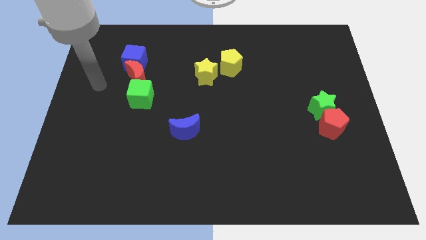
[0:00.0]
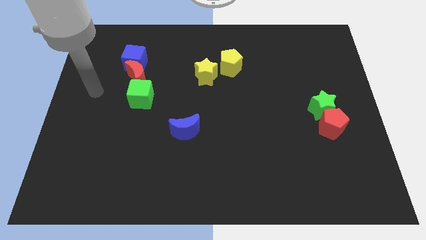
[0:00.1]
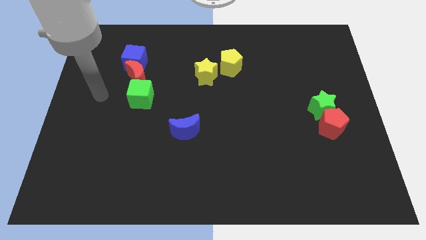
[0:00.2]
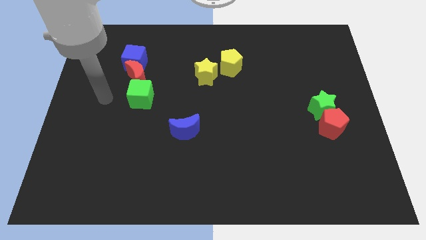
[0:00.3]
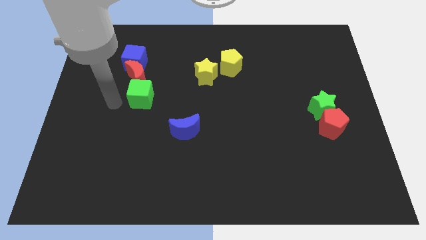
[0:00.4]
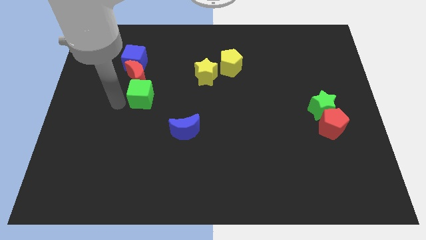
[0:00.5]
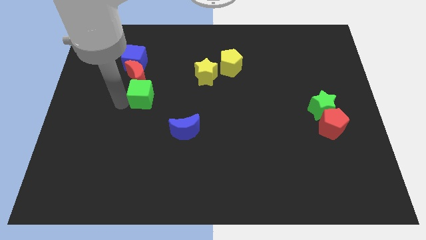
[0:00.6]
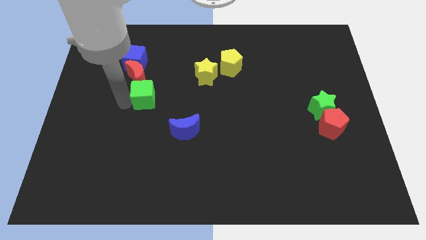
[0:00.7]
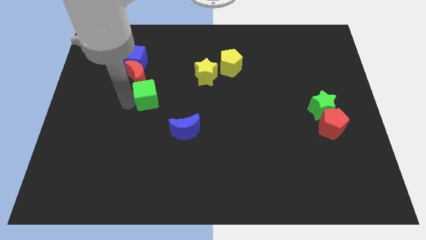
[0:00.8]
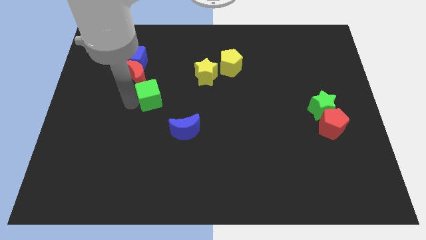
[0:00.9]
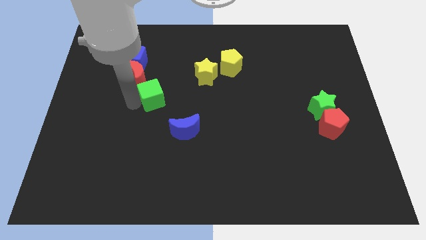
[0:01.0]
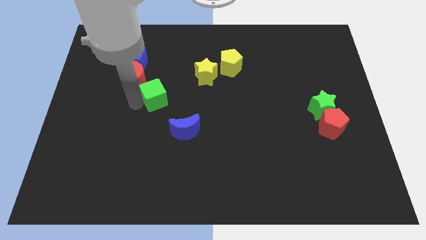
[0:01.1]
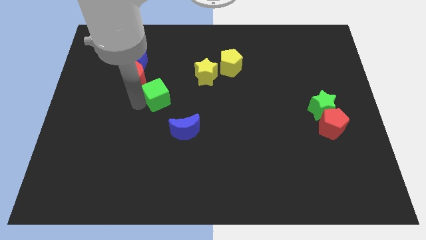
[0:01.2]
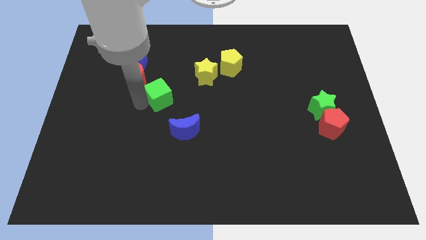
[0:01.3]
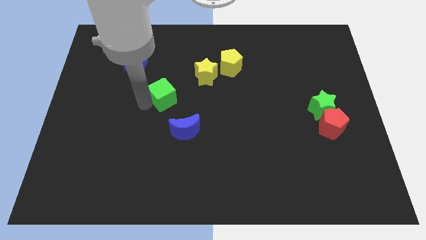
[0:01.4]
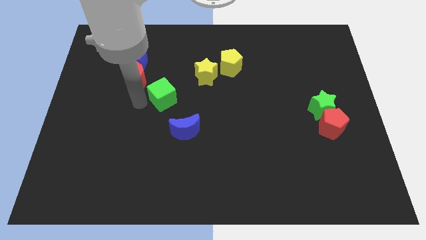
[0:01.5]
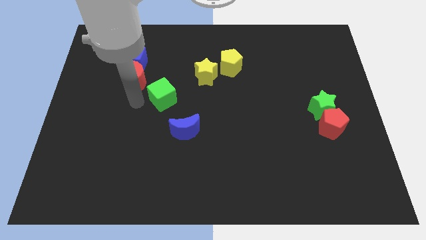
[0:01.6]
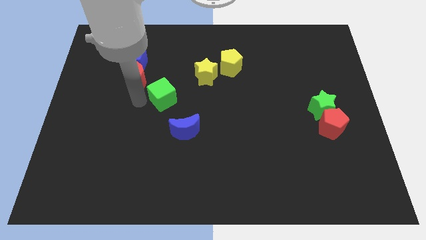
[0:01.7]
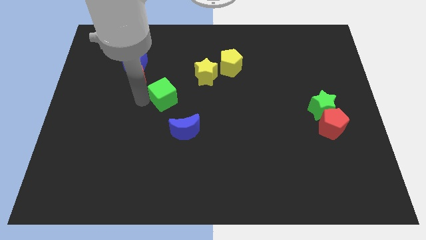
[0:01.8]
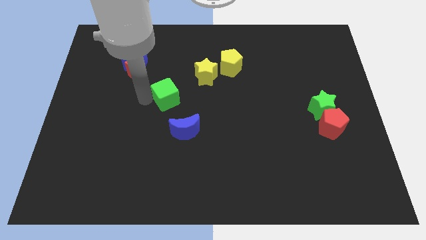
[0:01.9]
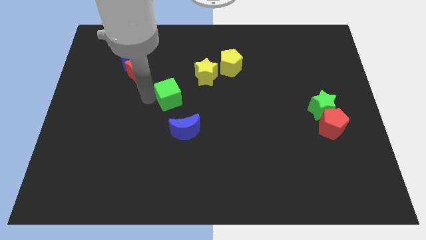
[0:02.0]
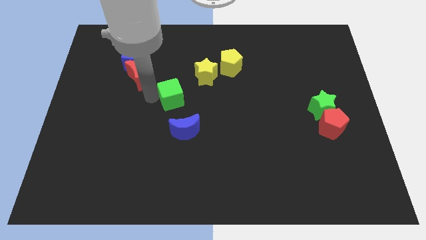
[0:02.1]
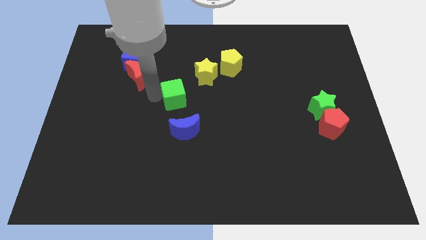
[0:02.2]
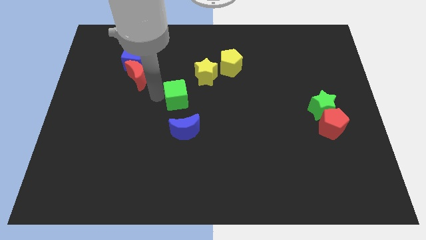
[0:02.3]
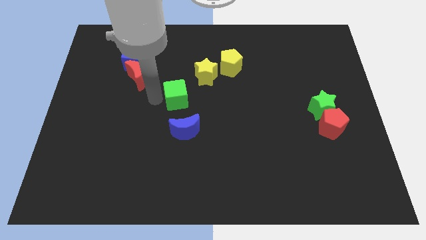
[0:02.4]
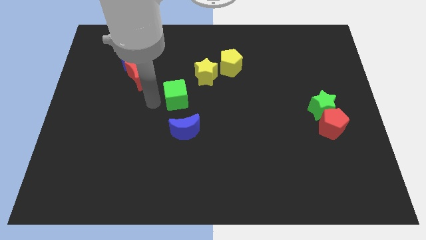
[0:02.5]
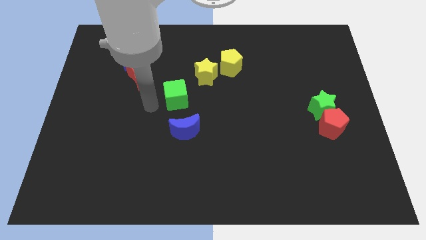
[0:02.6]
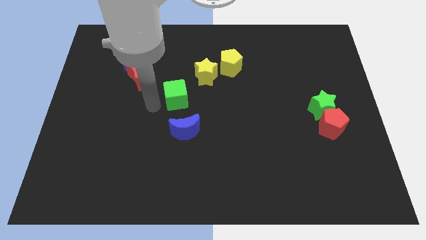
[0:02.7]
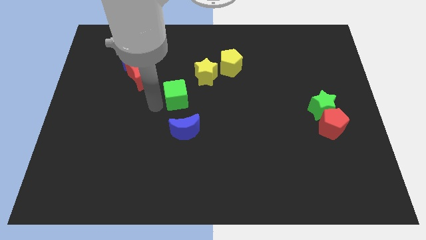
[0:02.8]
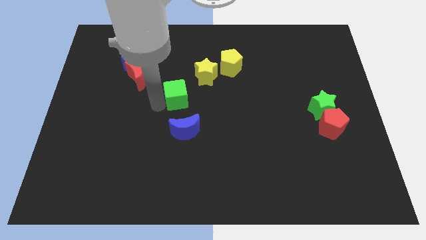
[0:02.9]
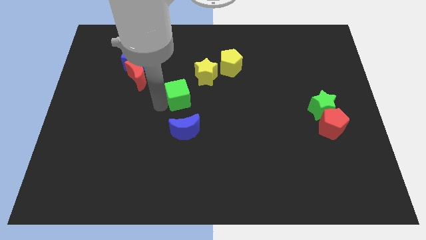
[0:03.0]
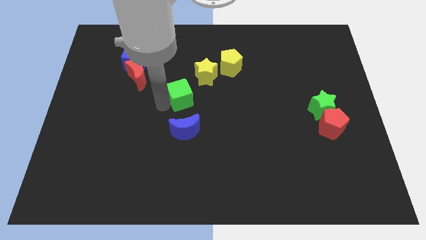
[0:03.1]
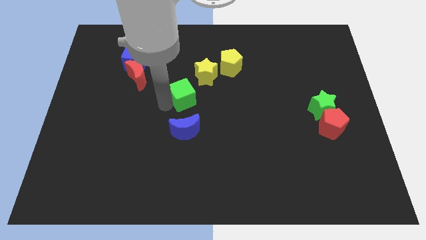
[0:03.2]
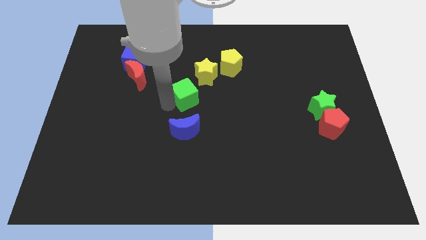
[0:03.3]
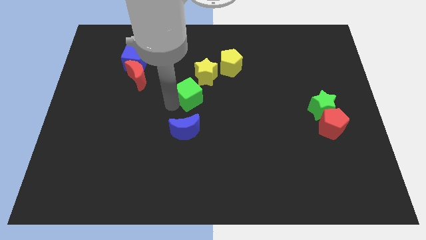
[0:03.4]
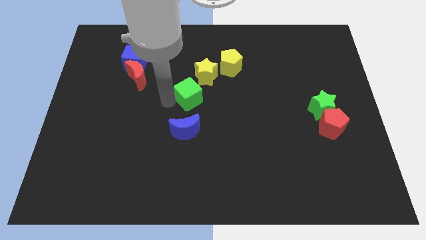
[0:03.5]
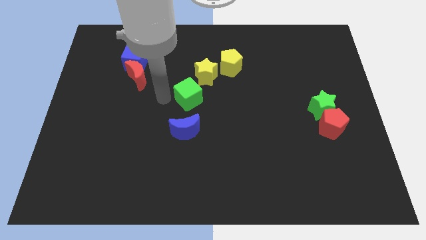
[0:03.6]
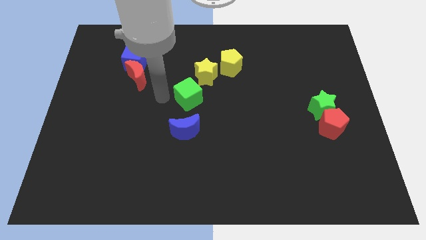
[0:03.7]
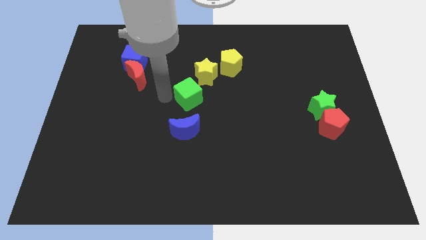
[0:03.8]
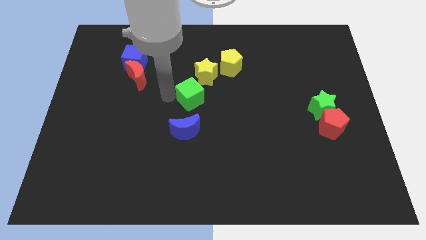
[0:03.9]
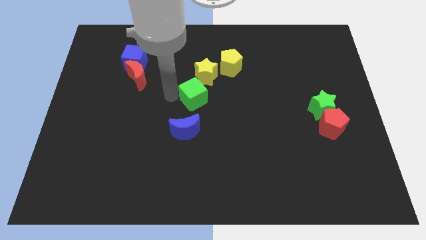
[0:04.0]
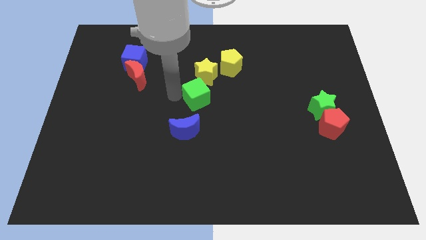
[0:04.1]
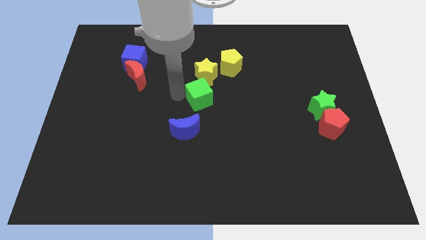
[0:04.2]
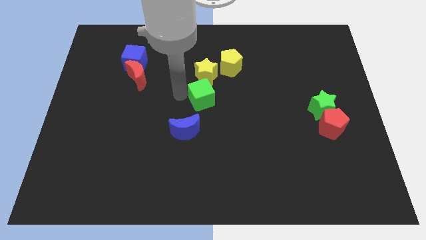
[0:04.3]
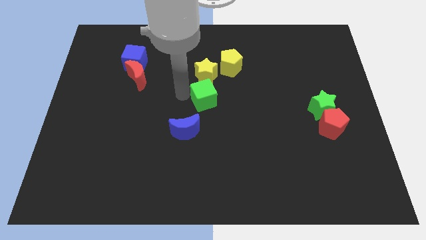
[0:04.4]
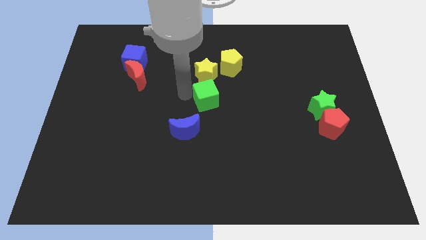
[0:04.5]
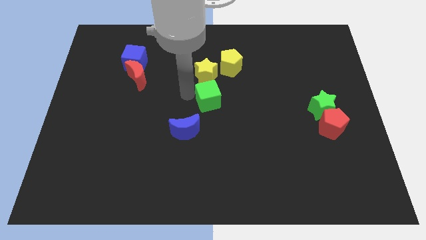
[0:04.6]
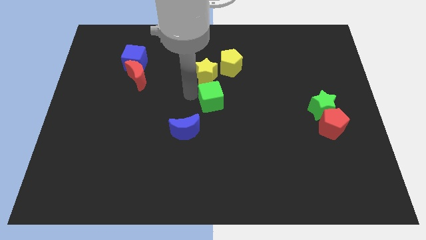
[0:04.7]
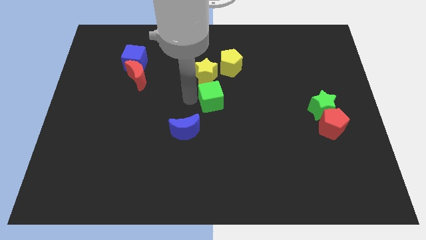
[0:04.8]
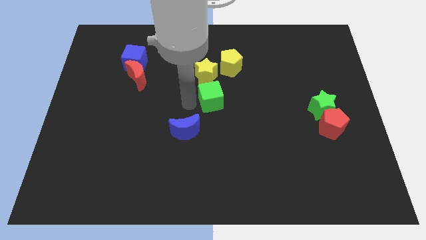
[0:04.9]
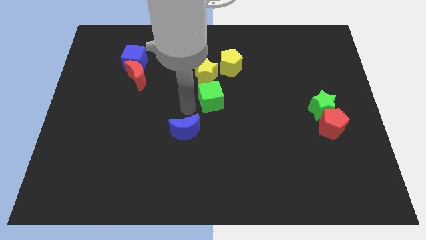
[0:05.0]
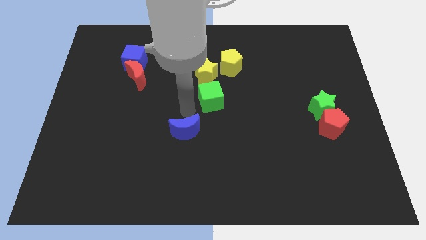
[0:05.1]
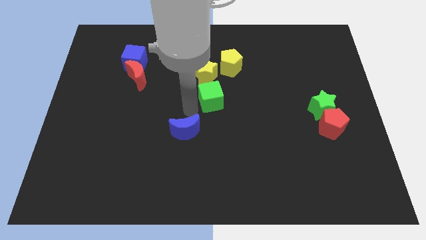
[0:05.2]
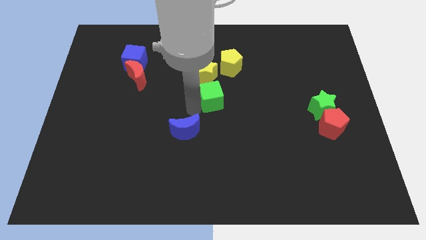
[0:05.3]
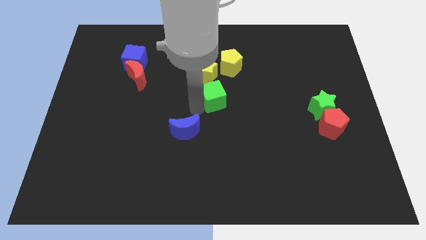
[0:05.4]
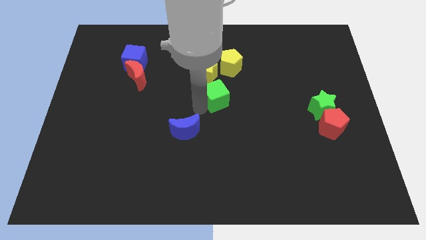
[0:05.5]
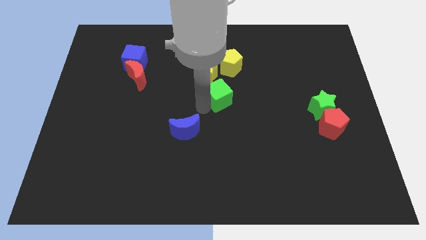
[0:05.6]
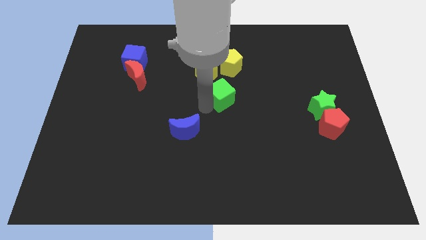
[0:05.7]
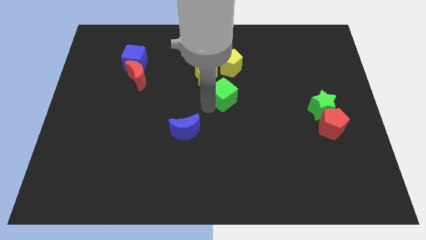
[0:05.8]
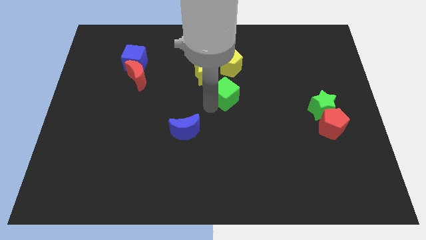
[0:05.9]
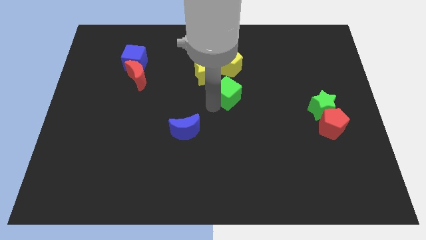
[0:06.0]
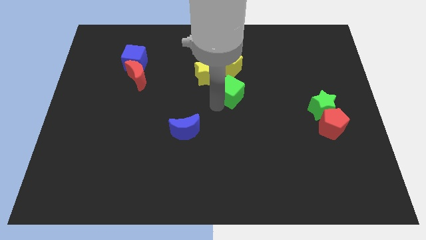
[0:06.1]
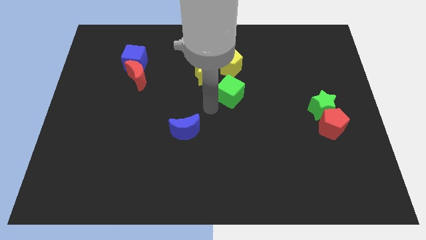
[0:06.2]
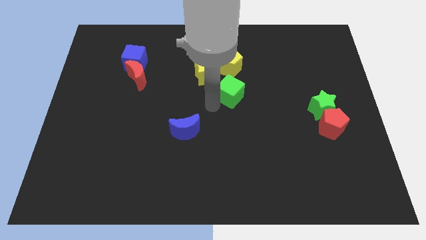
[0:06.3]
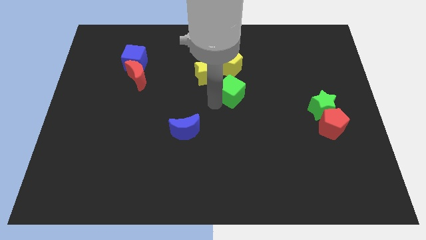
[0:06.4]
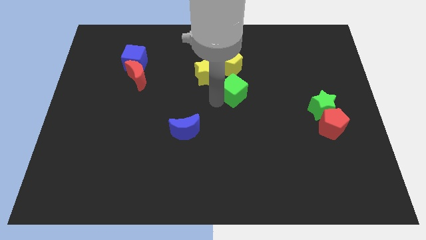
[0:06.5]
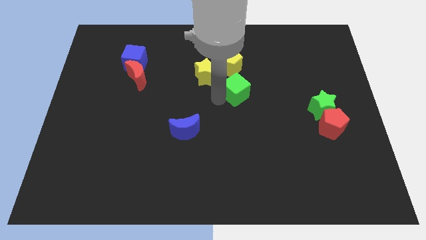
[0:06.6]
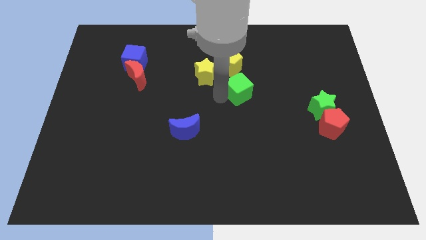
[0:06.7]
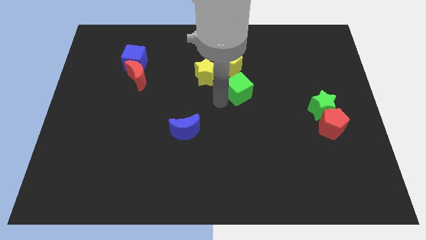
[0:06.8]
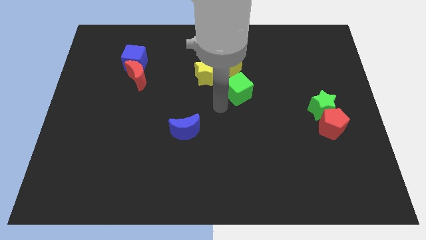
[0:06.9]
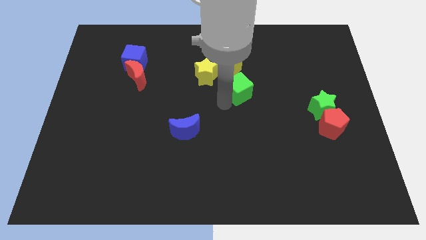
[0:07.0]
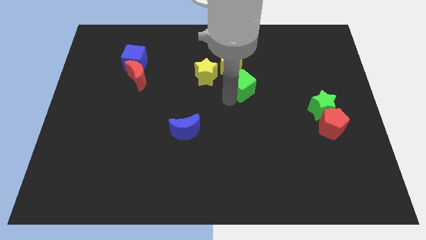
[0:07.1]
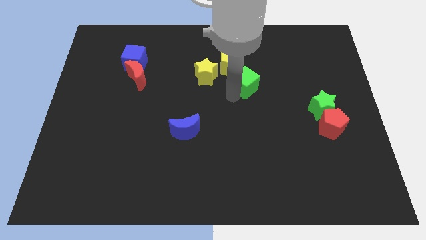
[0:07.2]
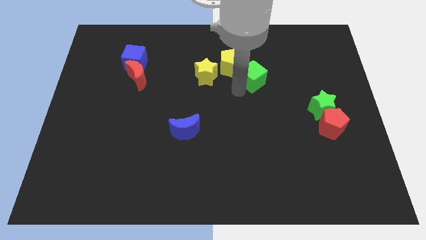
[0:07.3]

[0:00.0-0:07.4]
slide the green cube to the right side of the yellow pentagon

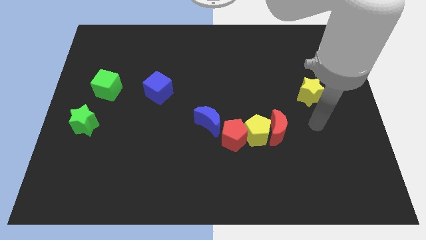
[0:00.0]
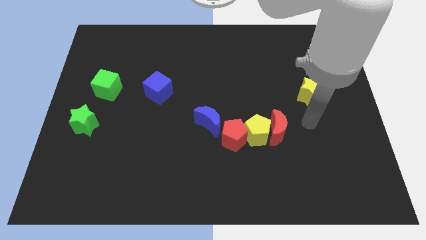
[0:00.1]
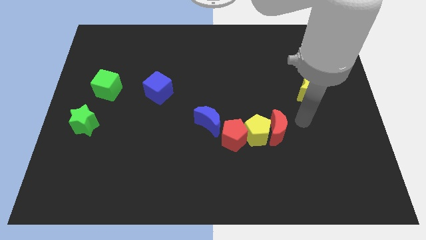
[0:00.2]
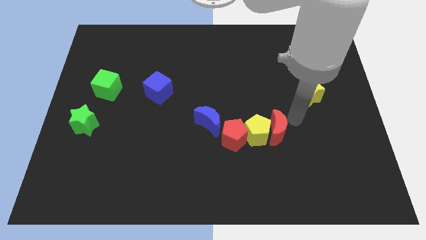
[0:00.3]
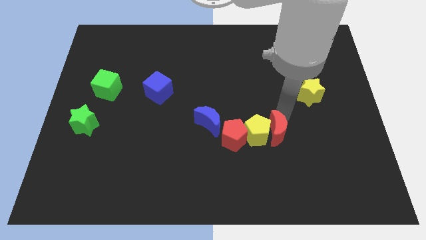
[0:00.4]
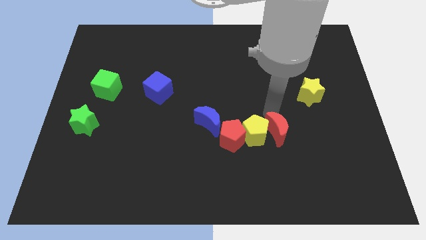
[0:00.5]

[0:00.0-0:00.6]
move the yellow pentagon to the bottom right of the blue moon
